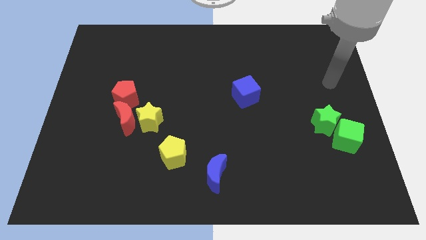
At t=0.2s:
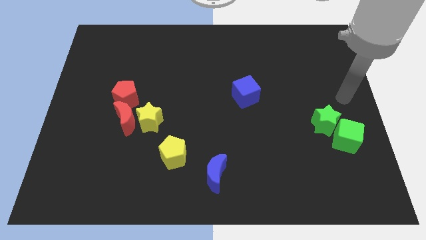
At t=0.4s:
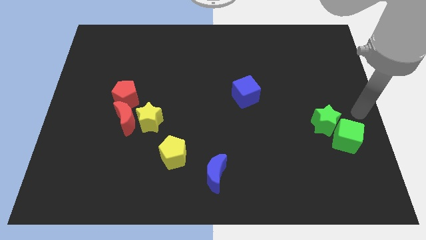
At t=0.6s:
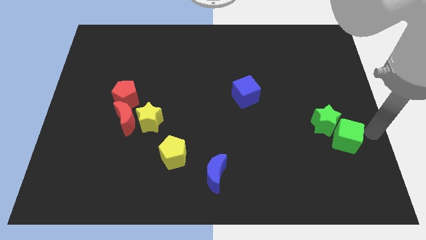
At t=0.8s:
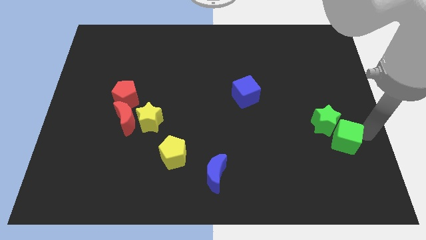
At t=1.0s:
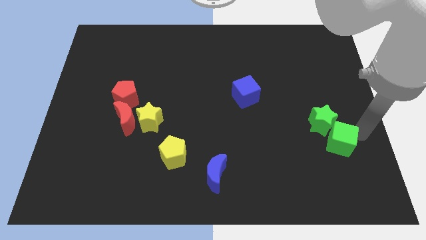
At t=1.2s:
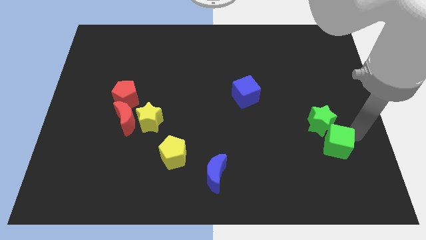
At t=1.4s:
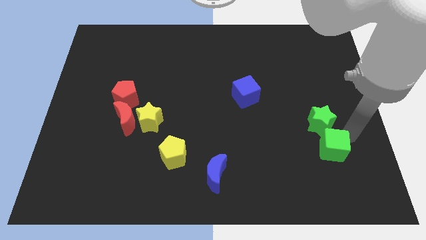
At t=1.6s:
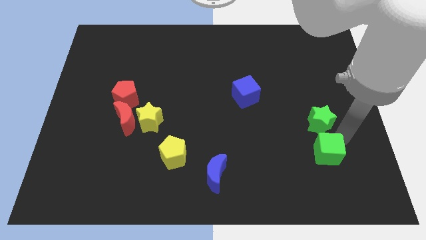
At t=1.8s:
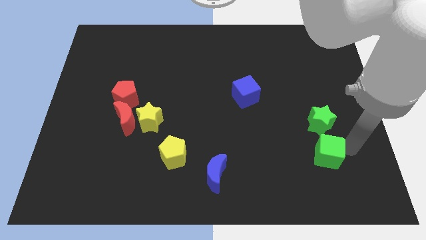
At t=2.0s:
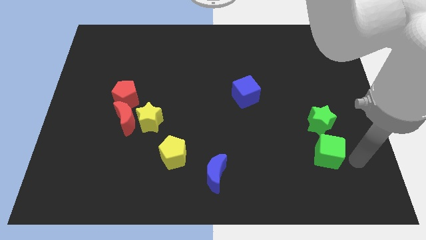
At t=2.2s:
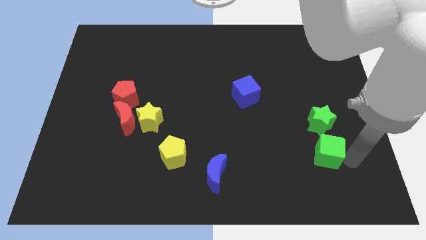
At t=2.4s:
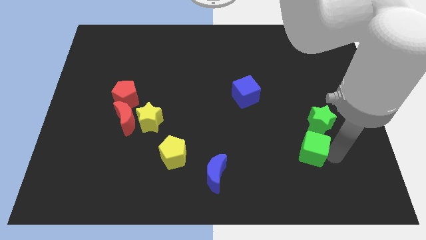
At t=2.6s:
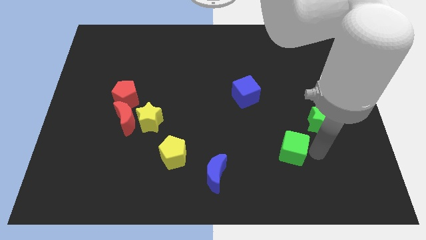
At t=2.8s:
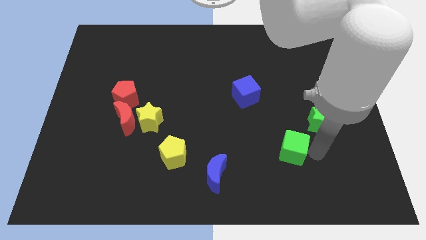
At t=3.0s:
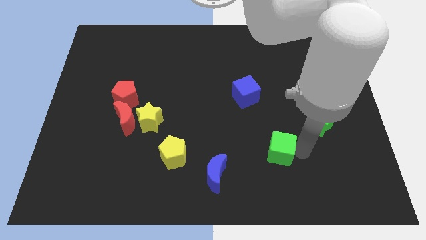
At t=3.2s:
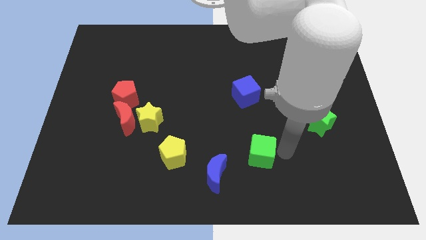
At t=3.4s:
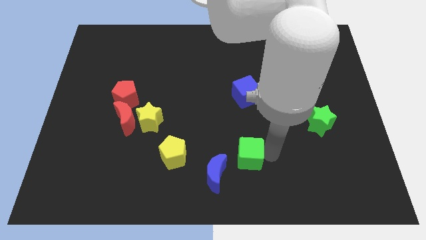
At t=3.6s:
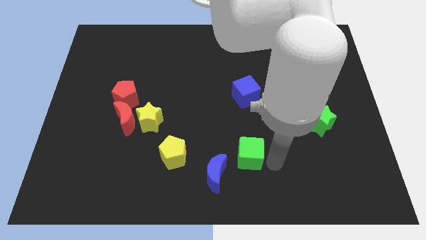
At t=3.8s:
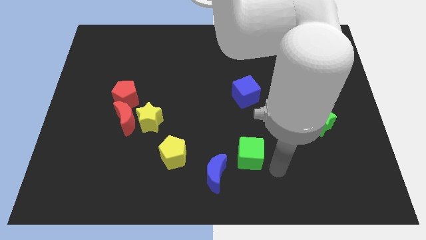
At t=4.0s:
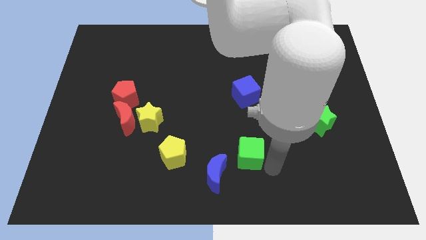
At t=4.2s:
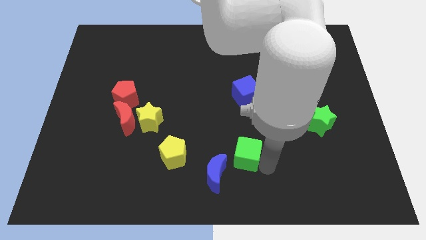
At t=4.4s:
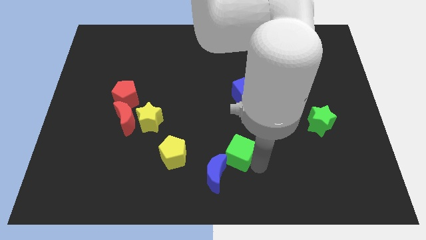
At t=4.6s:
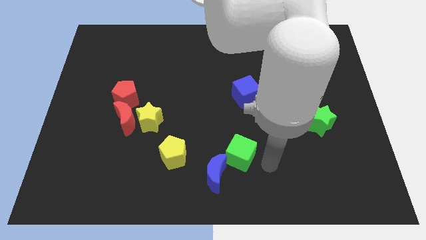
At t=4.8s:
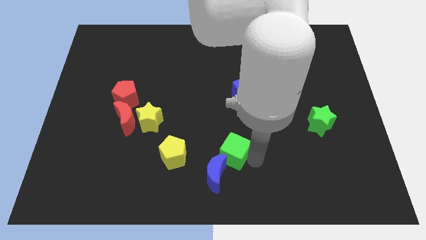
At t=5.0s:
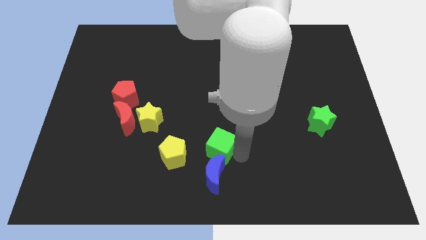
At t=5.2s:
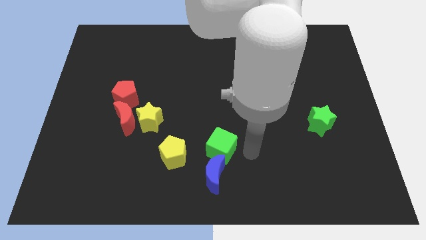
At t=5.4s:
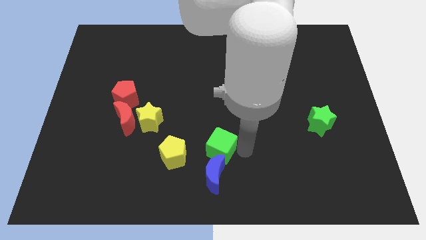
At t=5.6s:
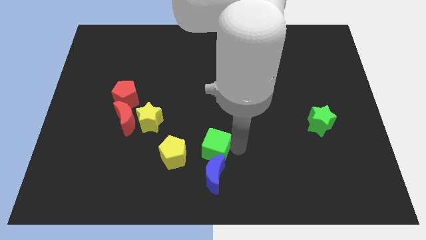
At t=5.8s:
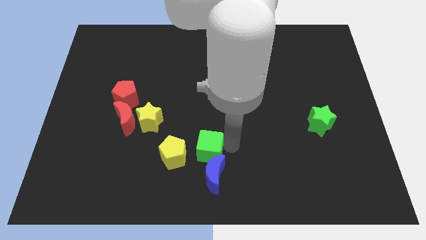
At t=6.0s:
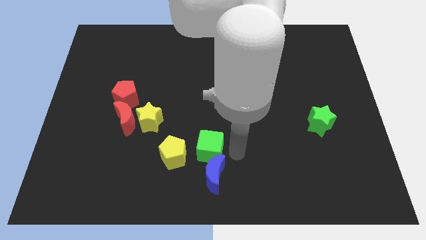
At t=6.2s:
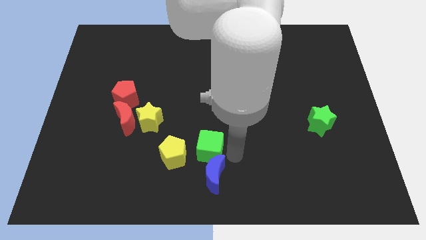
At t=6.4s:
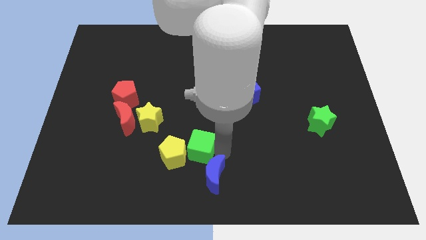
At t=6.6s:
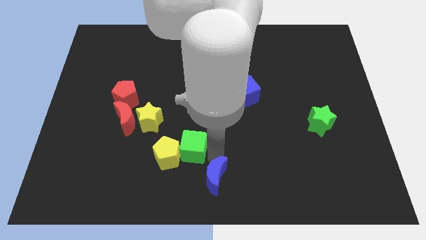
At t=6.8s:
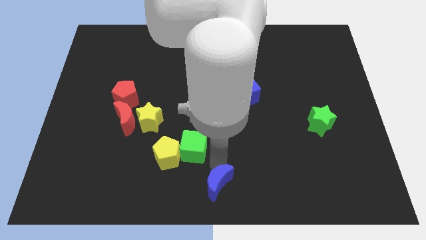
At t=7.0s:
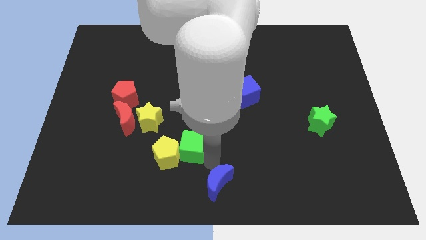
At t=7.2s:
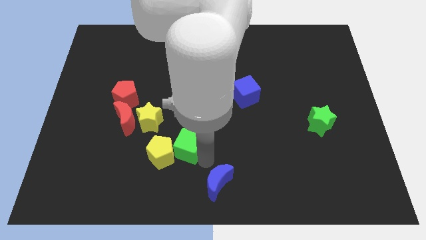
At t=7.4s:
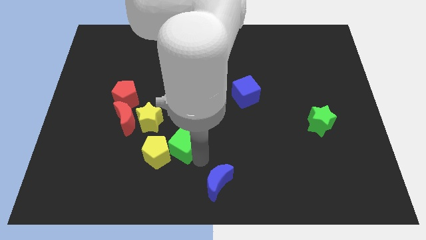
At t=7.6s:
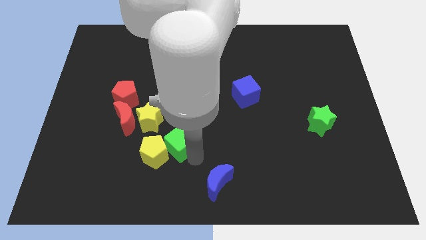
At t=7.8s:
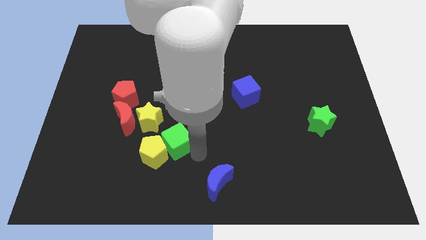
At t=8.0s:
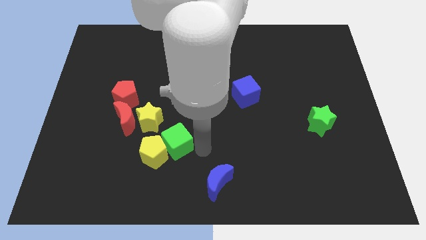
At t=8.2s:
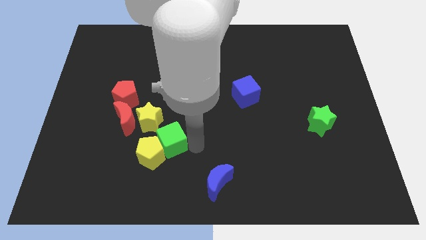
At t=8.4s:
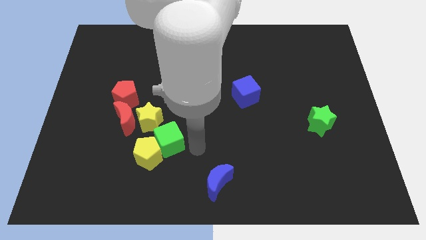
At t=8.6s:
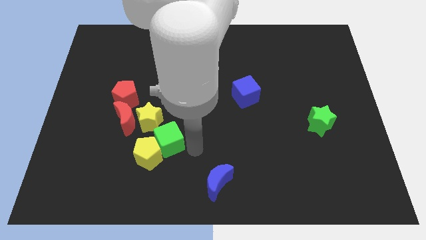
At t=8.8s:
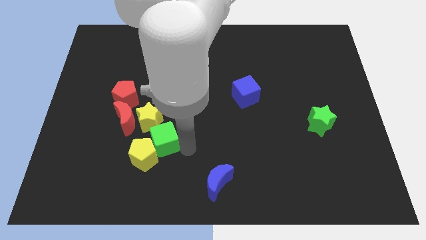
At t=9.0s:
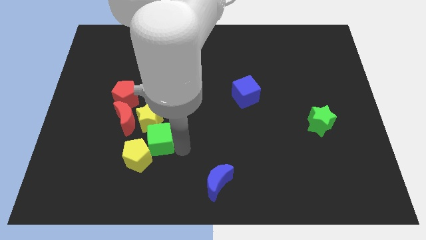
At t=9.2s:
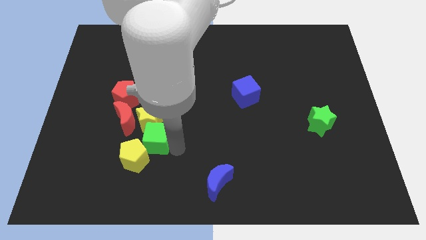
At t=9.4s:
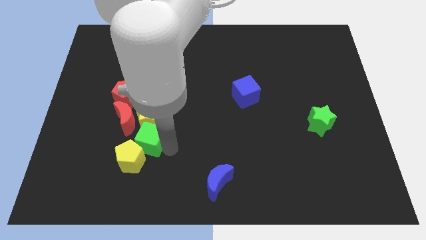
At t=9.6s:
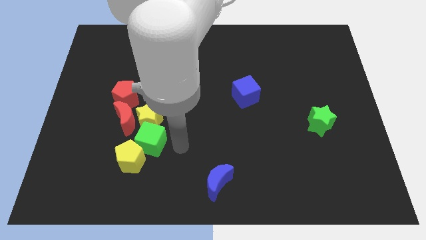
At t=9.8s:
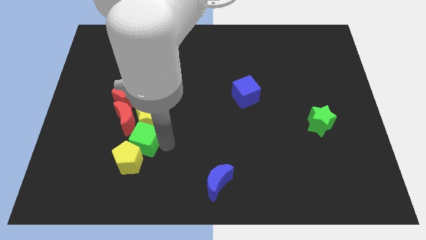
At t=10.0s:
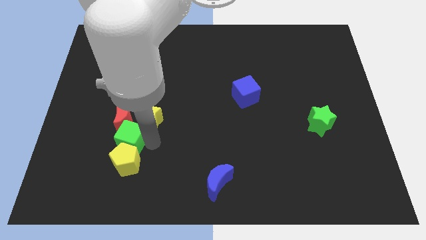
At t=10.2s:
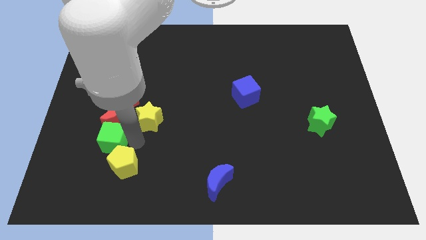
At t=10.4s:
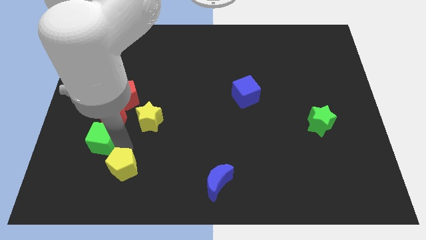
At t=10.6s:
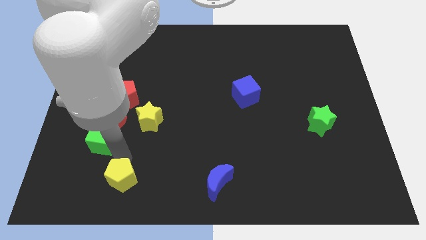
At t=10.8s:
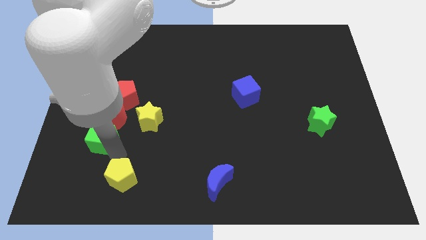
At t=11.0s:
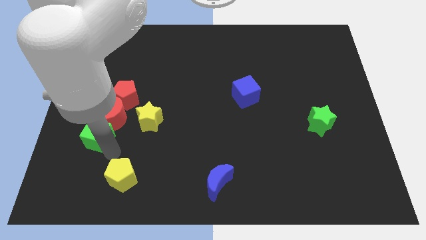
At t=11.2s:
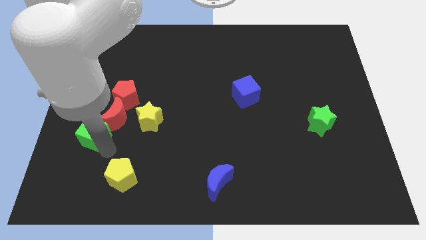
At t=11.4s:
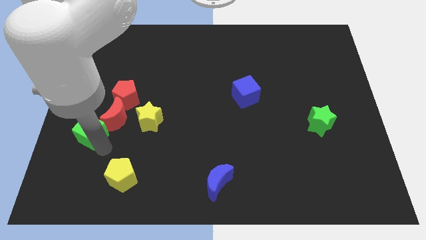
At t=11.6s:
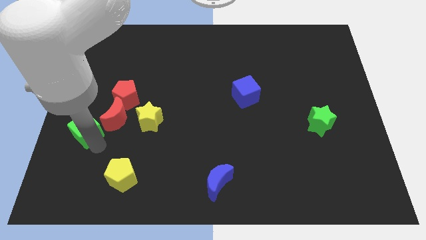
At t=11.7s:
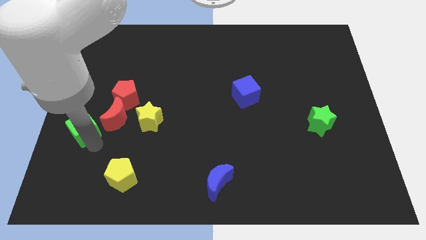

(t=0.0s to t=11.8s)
slide the green cube to the left side

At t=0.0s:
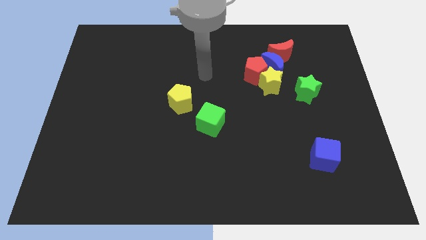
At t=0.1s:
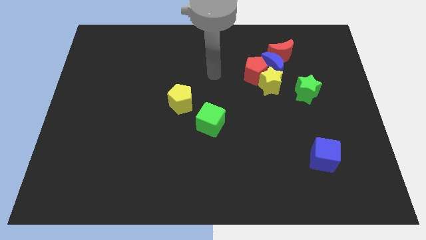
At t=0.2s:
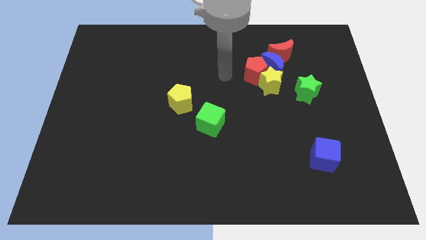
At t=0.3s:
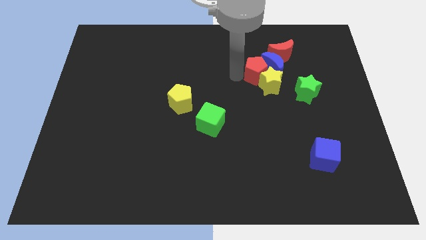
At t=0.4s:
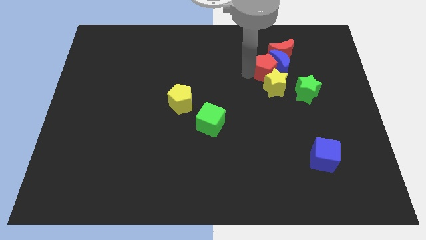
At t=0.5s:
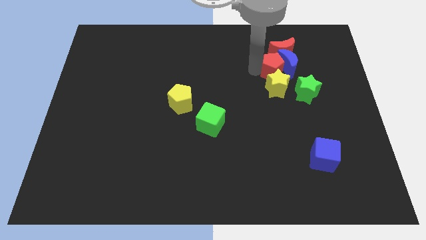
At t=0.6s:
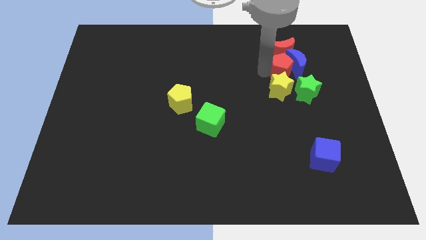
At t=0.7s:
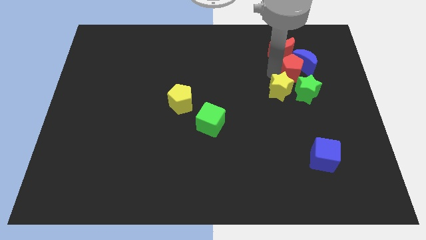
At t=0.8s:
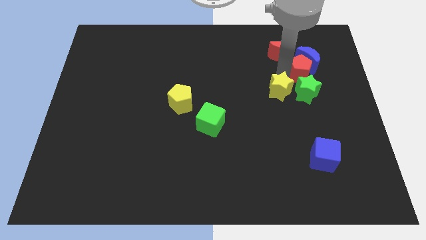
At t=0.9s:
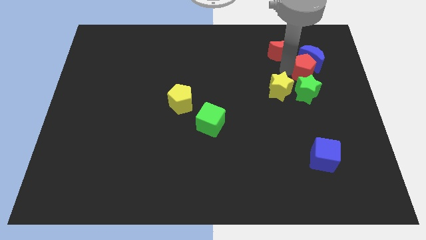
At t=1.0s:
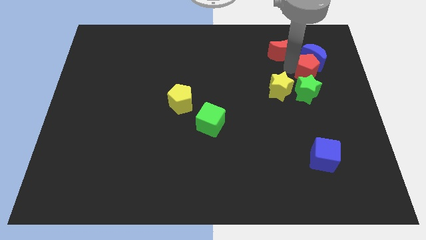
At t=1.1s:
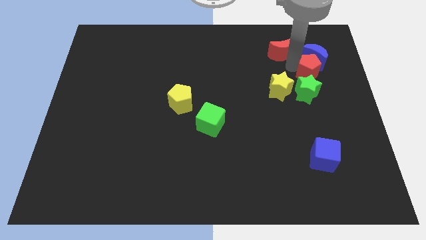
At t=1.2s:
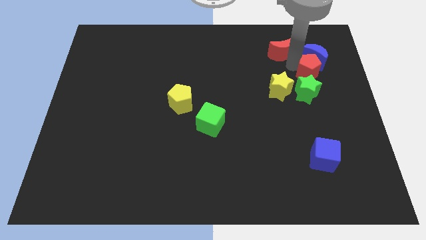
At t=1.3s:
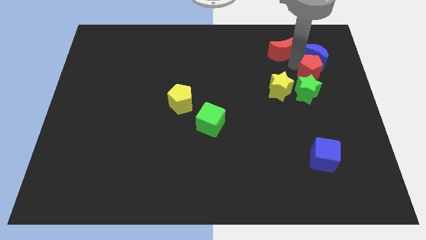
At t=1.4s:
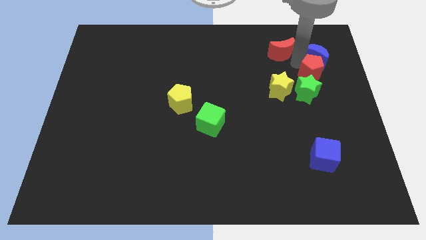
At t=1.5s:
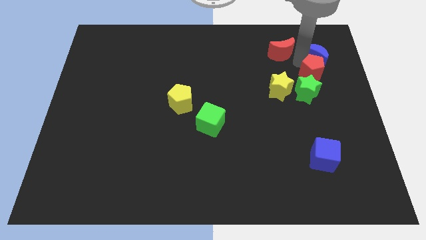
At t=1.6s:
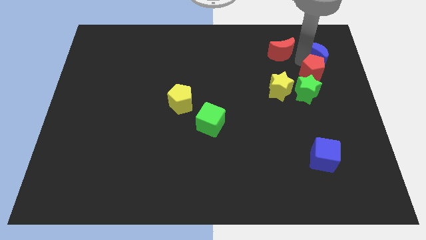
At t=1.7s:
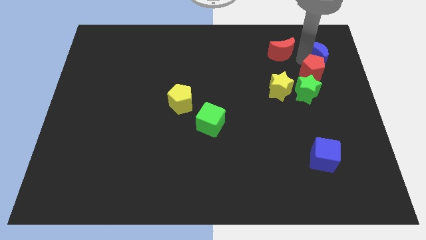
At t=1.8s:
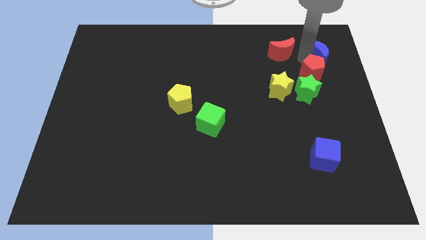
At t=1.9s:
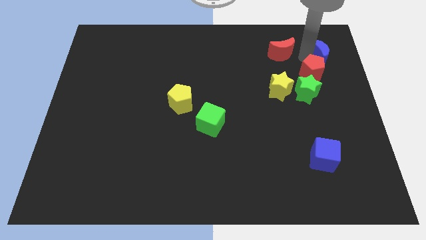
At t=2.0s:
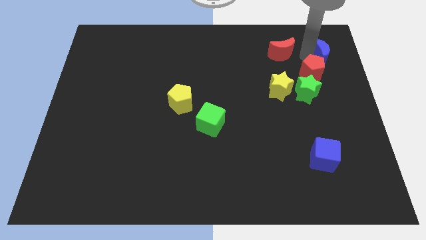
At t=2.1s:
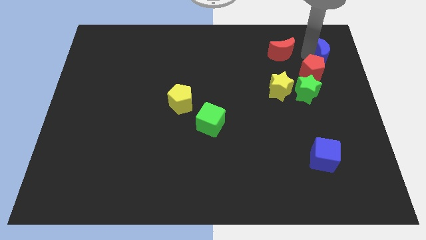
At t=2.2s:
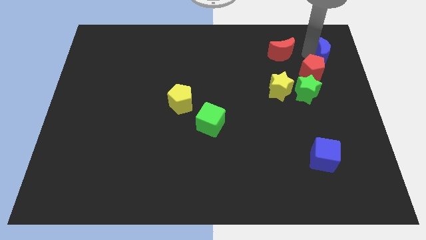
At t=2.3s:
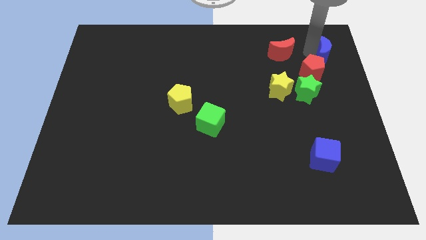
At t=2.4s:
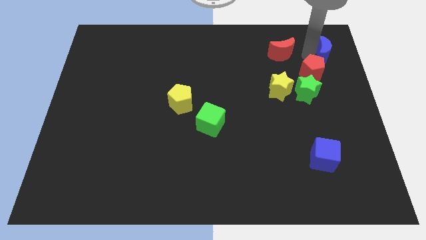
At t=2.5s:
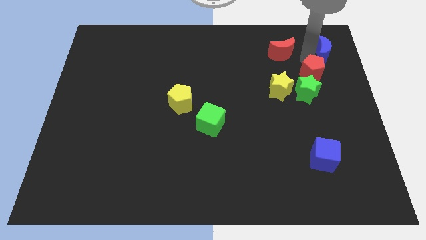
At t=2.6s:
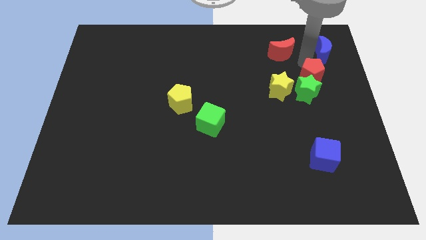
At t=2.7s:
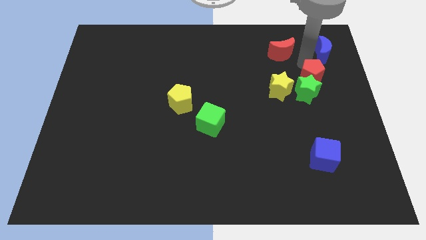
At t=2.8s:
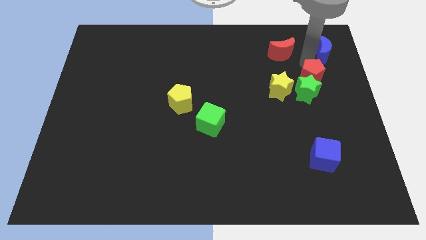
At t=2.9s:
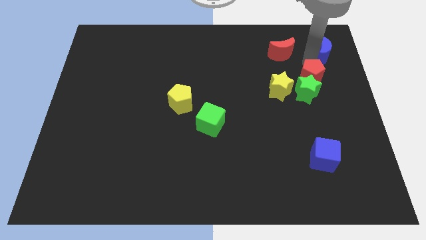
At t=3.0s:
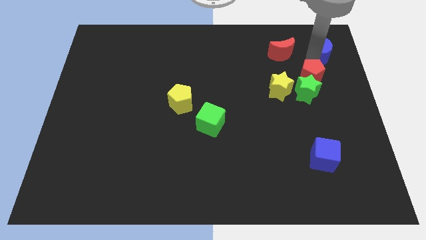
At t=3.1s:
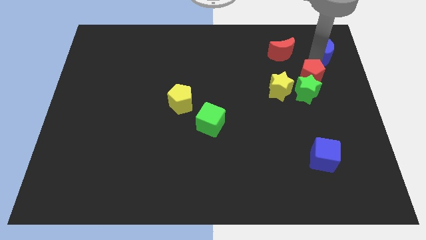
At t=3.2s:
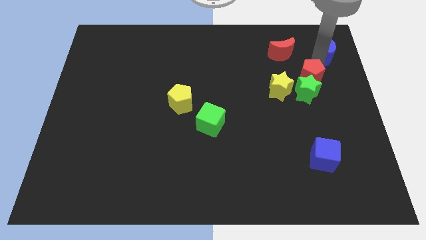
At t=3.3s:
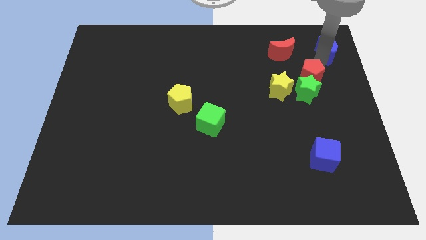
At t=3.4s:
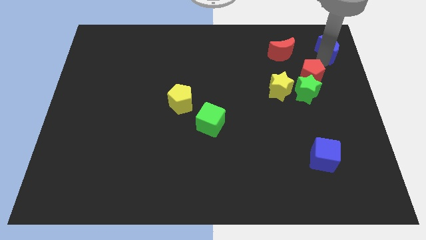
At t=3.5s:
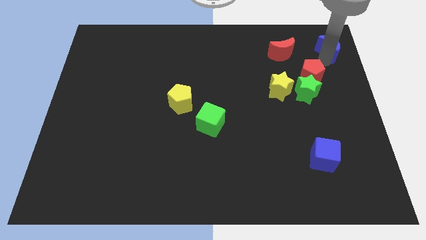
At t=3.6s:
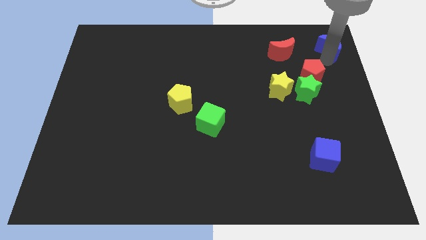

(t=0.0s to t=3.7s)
put the blue moon to the top right corner
